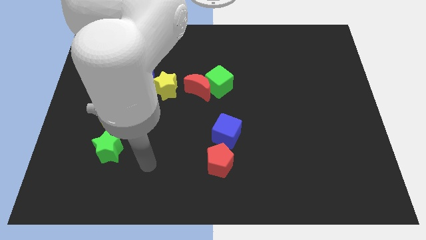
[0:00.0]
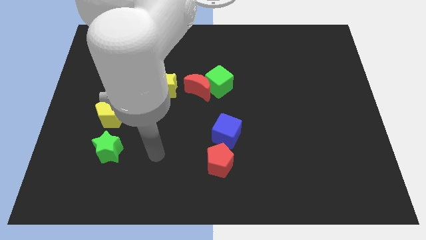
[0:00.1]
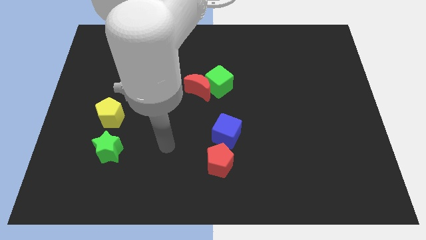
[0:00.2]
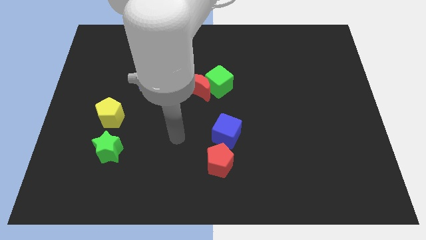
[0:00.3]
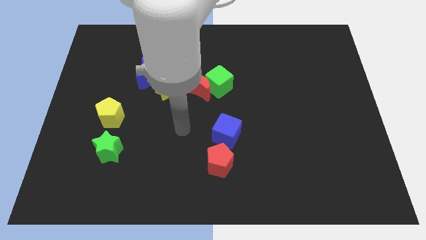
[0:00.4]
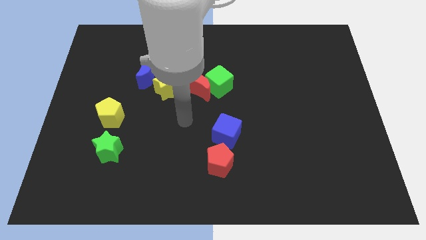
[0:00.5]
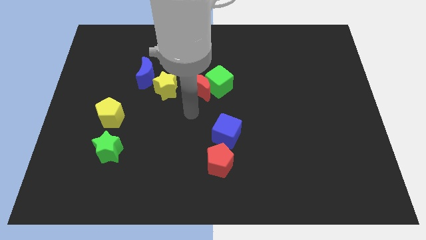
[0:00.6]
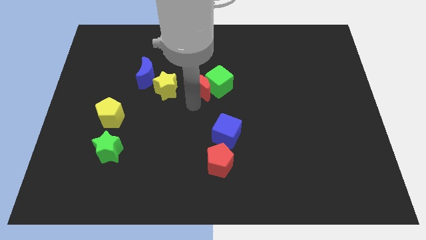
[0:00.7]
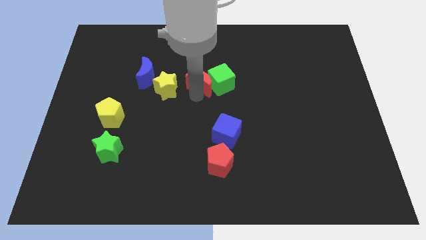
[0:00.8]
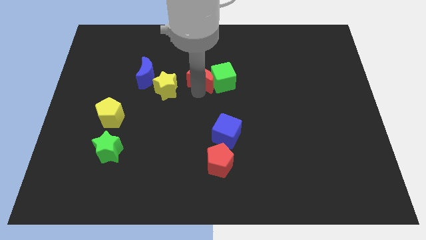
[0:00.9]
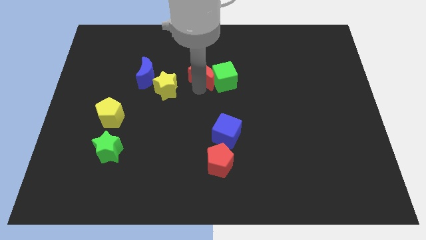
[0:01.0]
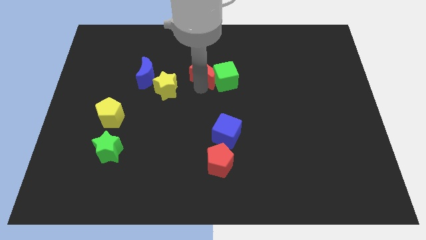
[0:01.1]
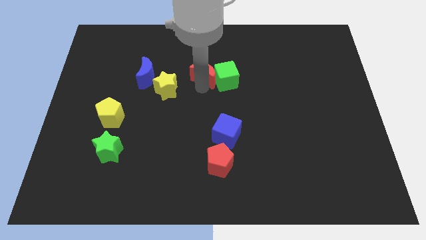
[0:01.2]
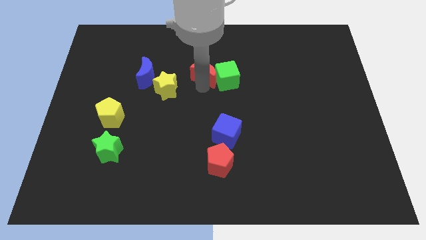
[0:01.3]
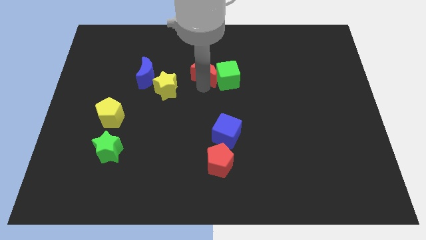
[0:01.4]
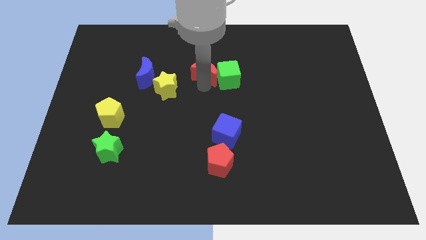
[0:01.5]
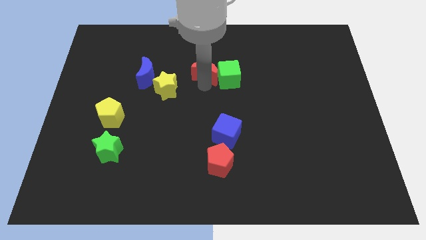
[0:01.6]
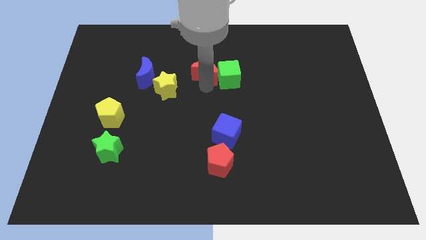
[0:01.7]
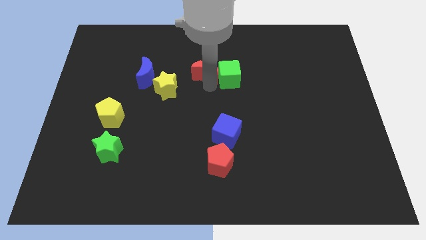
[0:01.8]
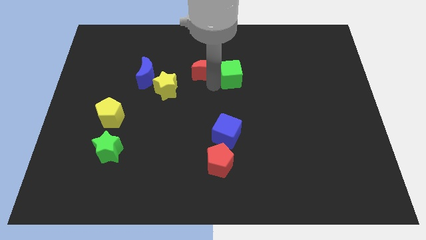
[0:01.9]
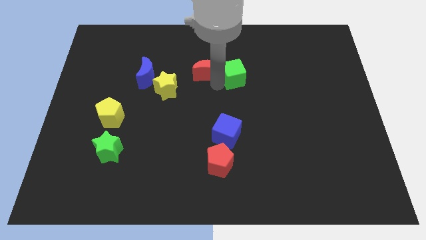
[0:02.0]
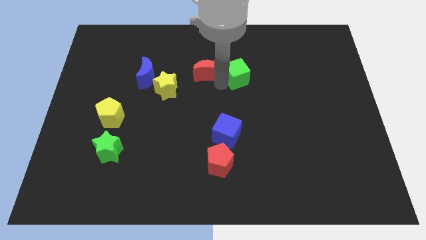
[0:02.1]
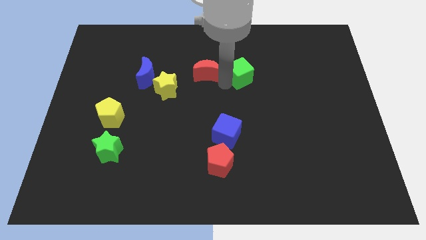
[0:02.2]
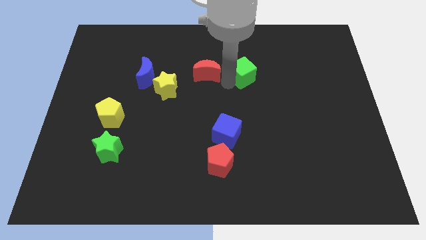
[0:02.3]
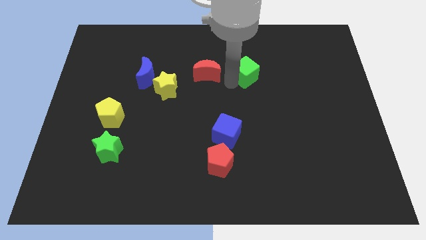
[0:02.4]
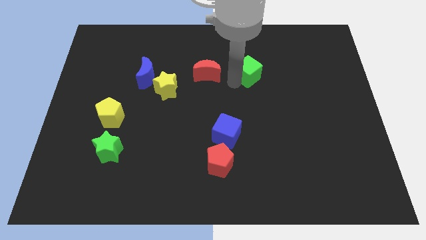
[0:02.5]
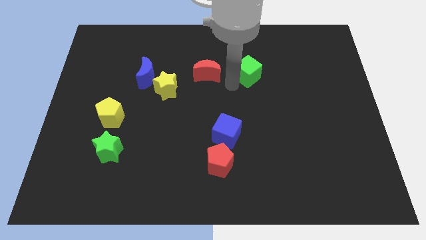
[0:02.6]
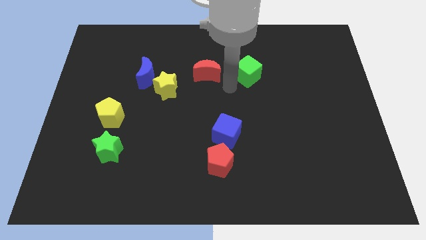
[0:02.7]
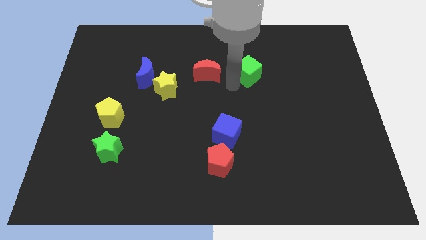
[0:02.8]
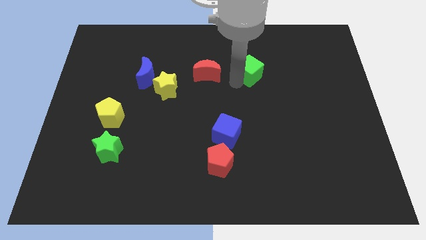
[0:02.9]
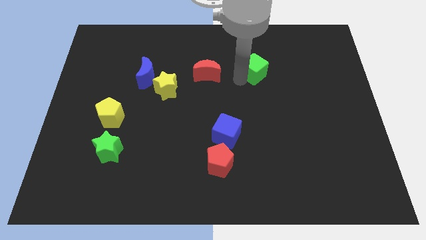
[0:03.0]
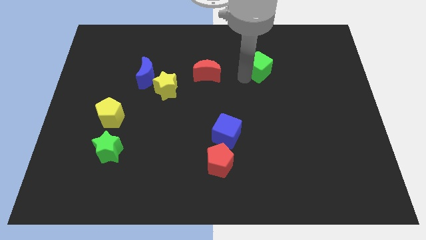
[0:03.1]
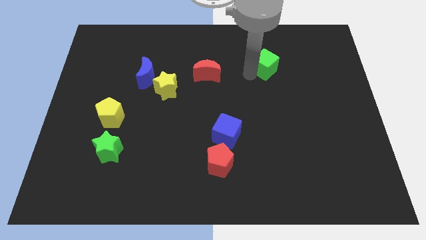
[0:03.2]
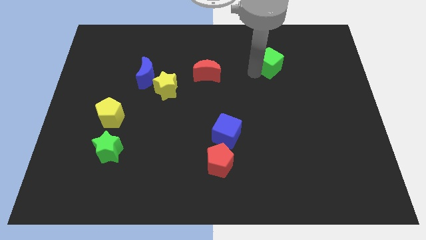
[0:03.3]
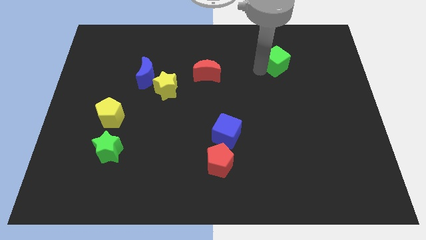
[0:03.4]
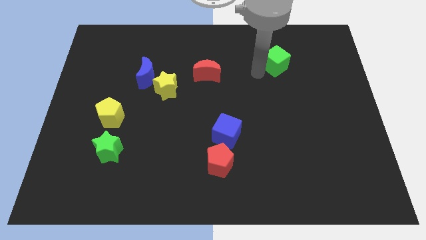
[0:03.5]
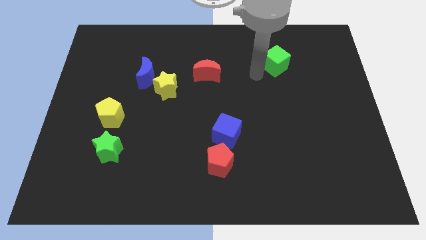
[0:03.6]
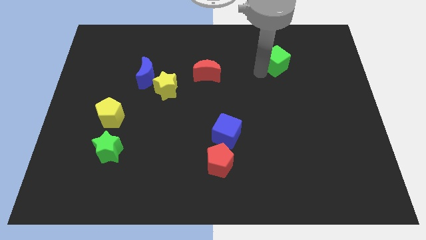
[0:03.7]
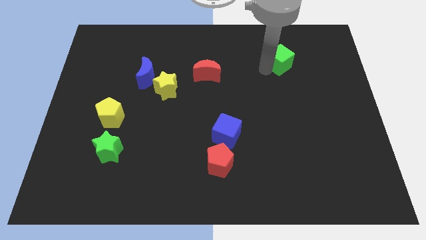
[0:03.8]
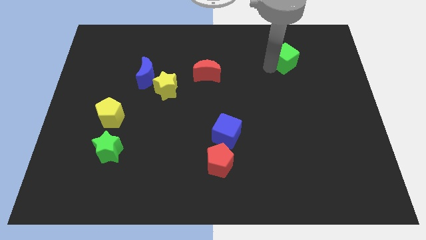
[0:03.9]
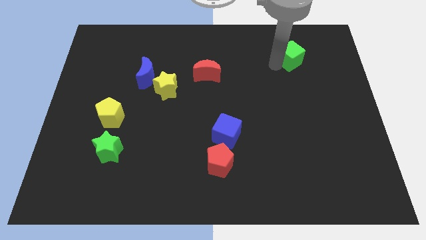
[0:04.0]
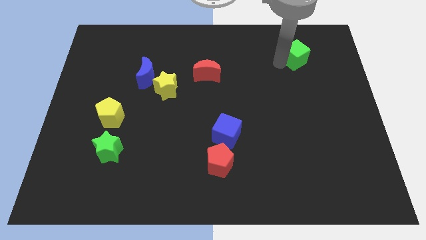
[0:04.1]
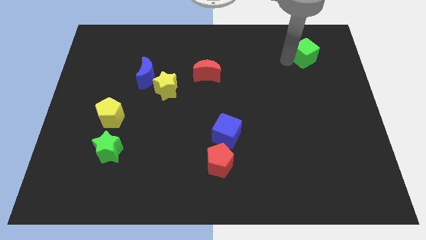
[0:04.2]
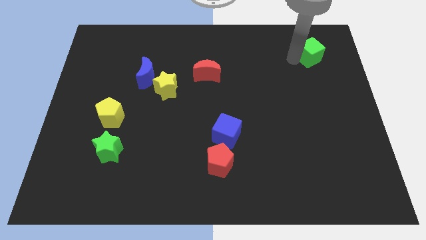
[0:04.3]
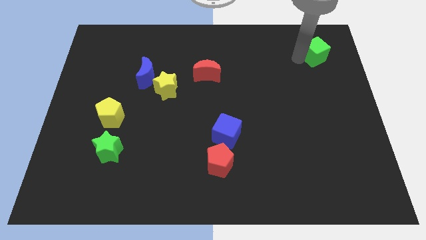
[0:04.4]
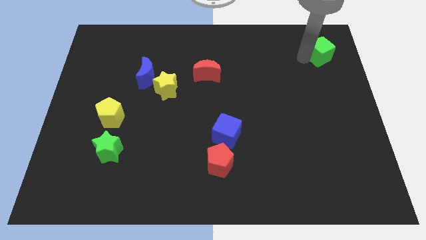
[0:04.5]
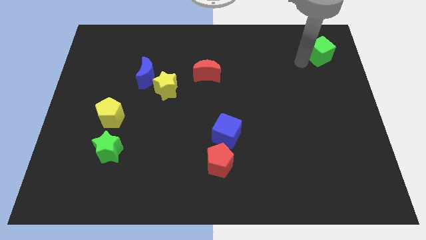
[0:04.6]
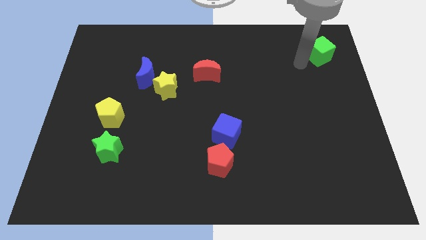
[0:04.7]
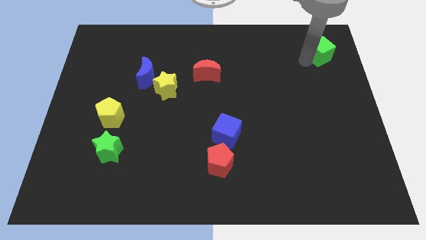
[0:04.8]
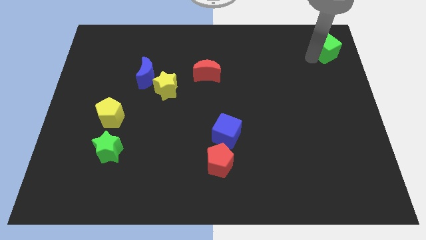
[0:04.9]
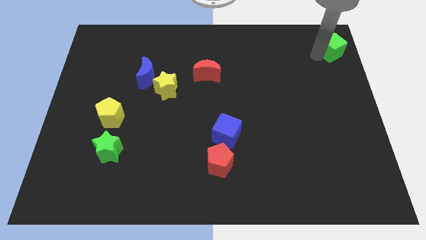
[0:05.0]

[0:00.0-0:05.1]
slide the green cube to the upper right corner
